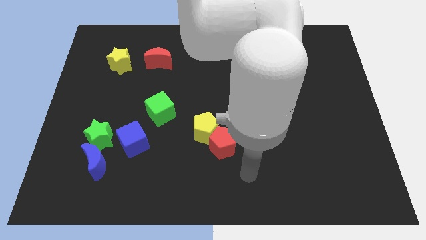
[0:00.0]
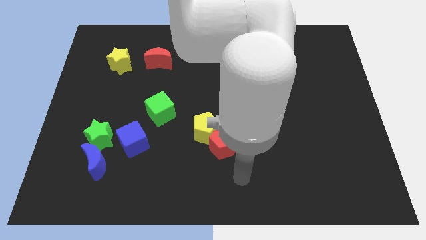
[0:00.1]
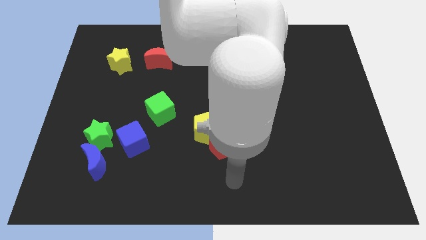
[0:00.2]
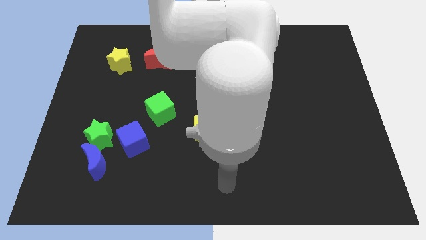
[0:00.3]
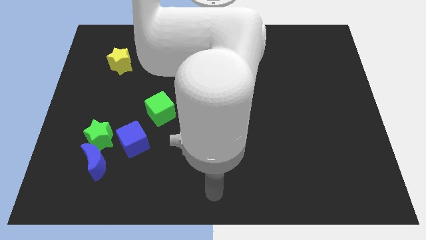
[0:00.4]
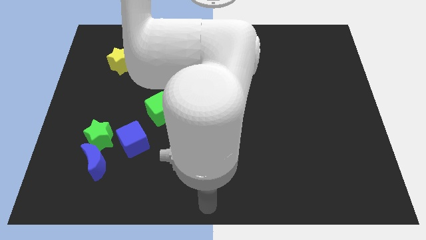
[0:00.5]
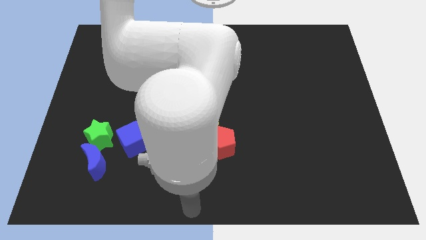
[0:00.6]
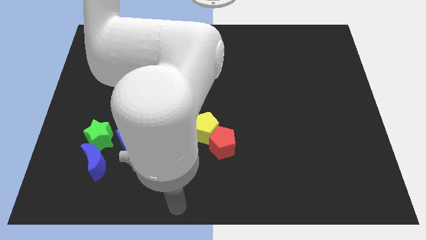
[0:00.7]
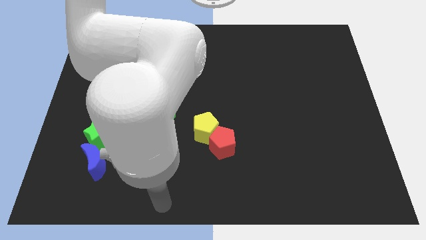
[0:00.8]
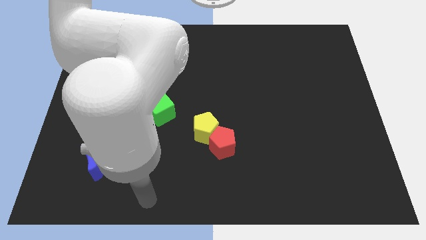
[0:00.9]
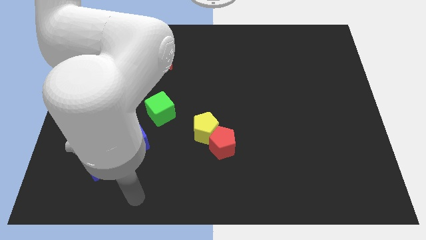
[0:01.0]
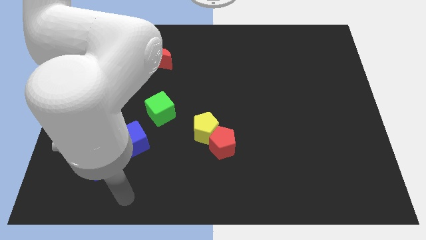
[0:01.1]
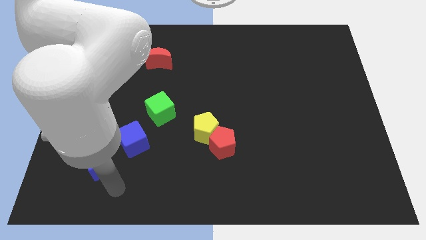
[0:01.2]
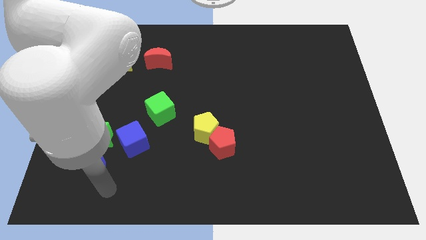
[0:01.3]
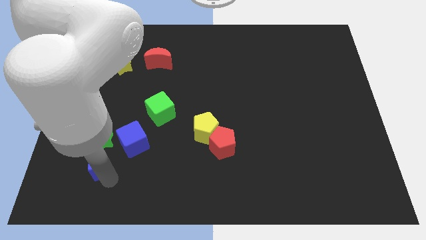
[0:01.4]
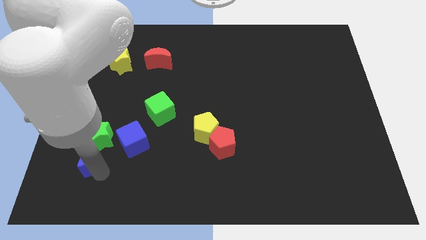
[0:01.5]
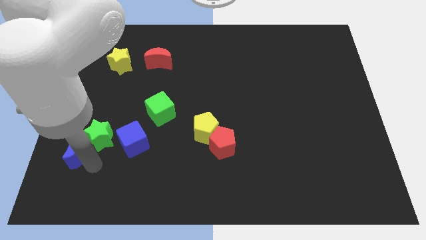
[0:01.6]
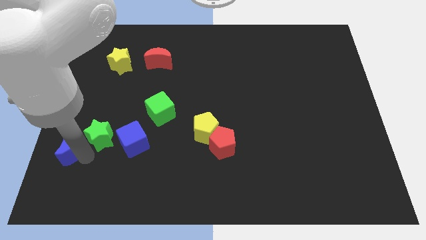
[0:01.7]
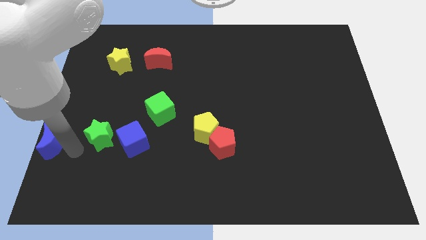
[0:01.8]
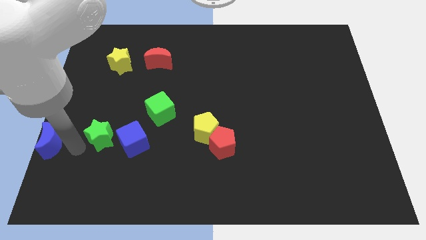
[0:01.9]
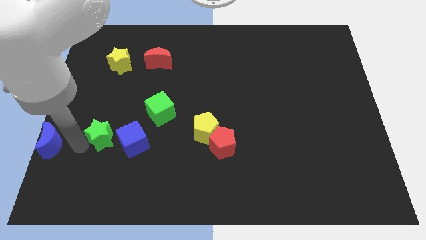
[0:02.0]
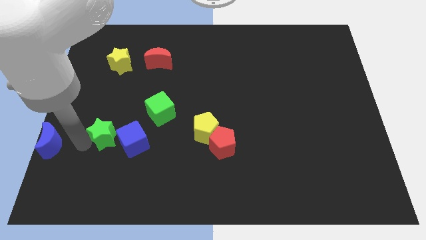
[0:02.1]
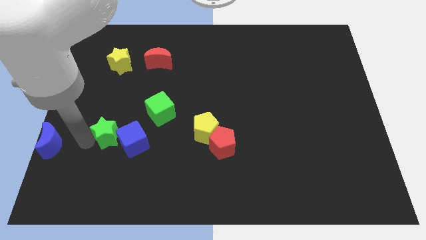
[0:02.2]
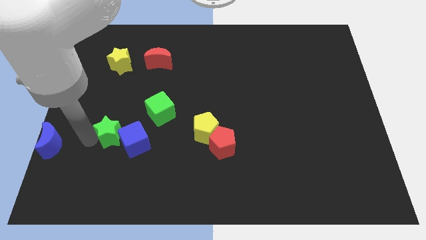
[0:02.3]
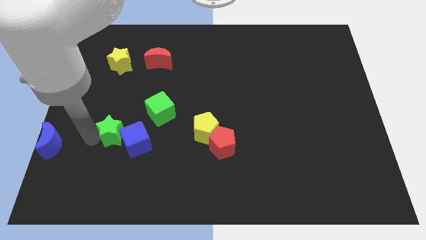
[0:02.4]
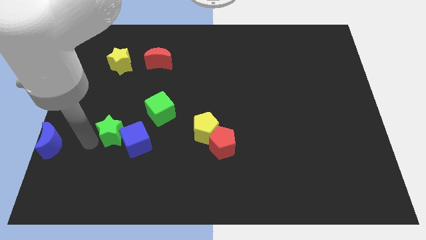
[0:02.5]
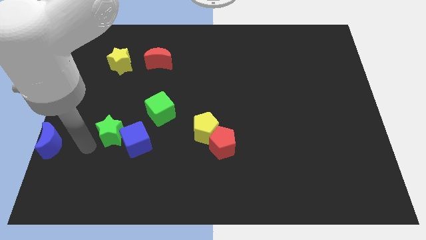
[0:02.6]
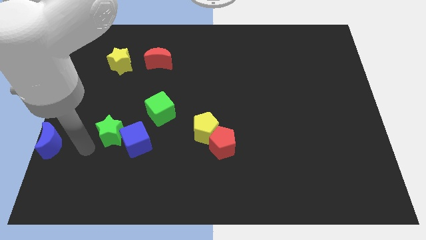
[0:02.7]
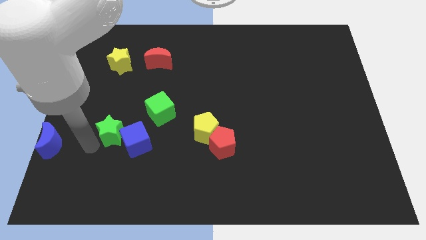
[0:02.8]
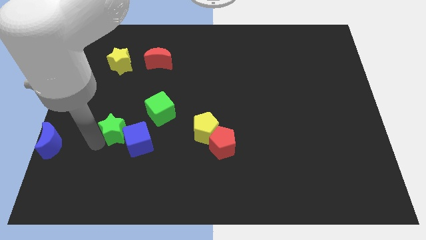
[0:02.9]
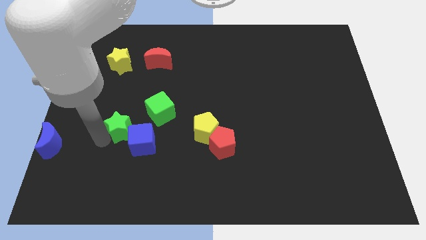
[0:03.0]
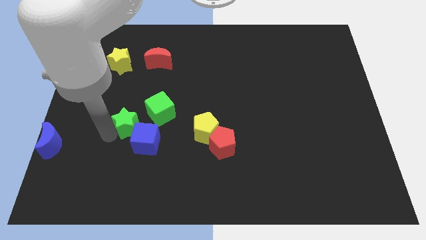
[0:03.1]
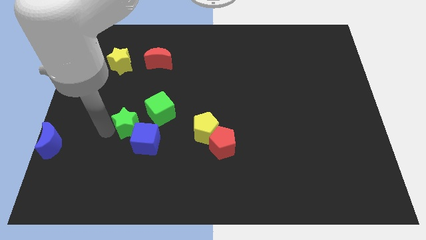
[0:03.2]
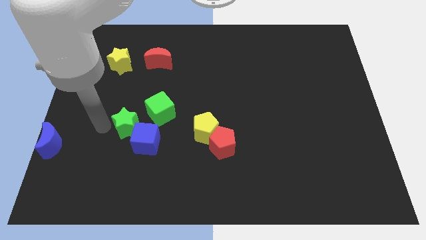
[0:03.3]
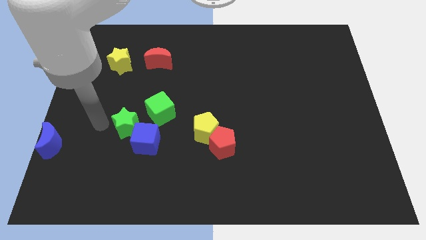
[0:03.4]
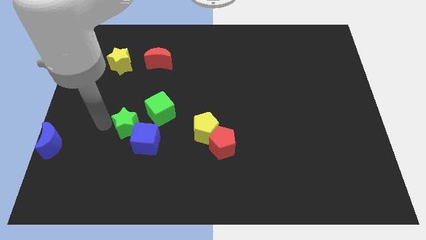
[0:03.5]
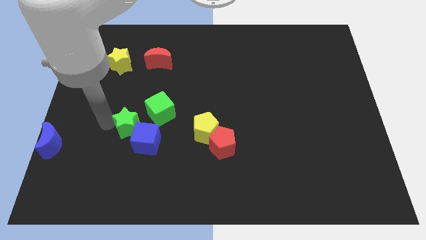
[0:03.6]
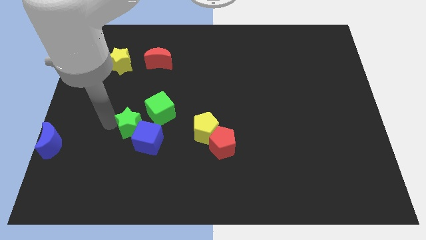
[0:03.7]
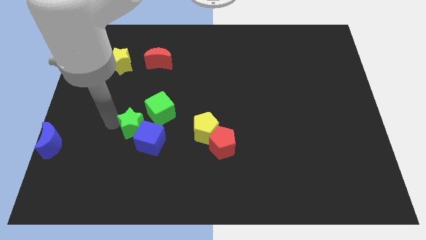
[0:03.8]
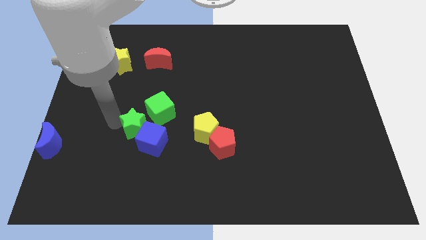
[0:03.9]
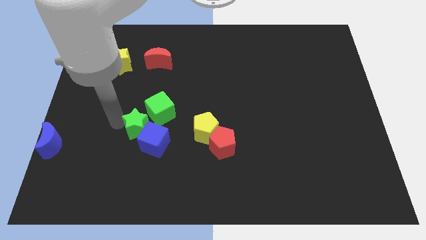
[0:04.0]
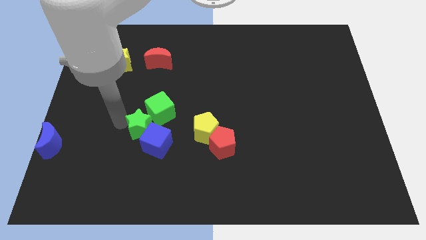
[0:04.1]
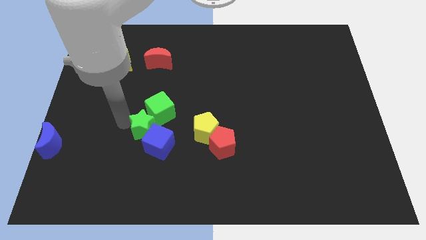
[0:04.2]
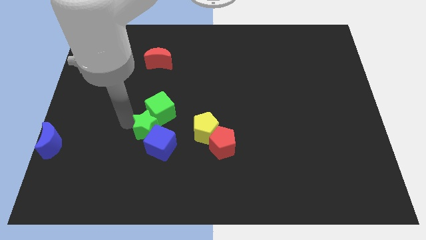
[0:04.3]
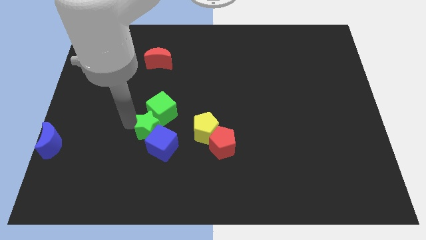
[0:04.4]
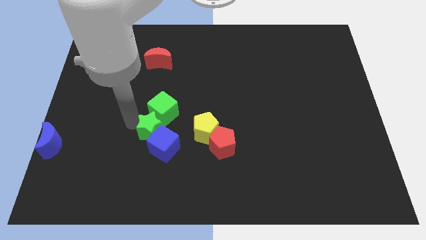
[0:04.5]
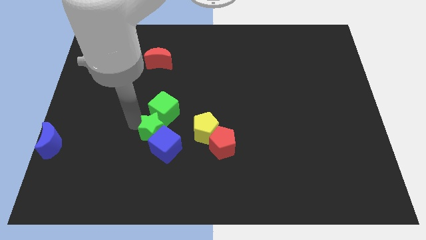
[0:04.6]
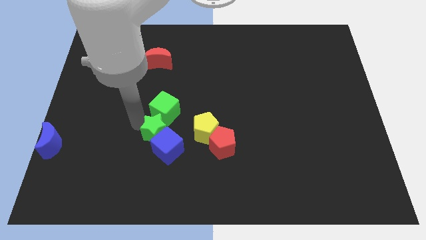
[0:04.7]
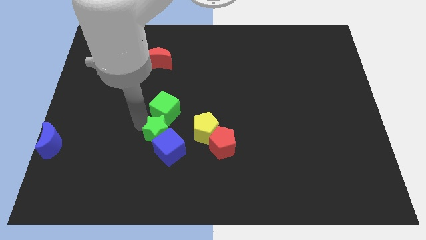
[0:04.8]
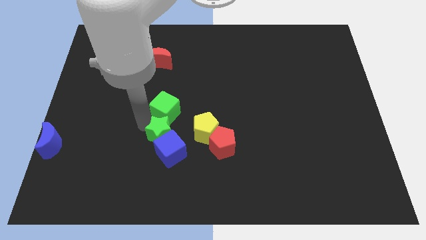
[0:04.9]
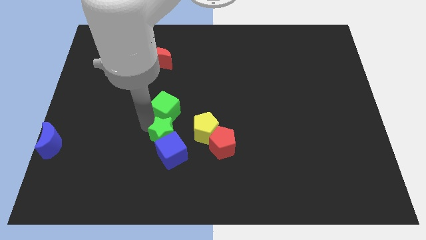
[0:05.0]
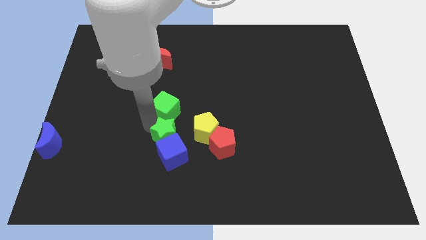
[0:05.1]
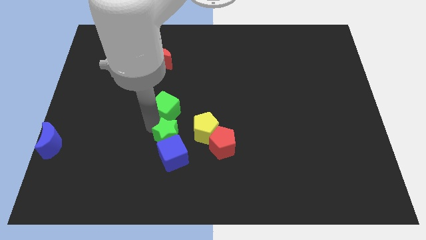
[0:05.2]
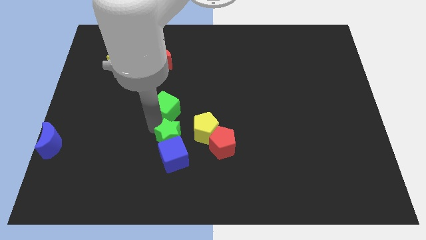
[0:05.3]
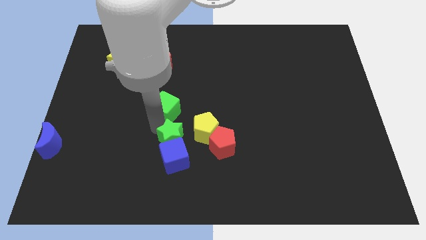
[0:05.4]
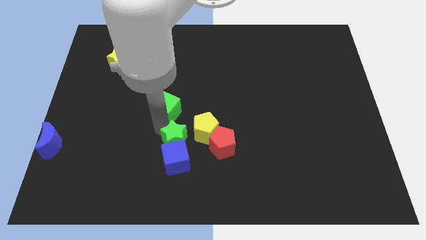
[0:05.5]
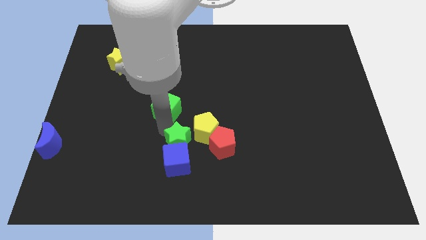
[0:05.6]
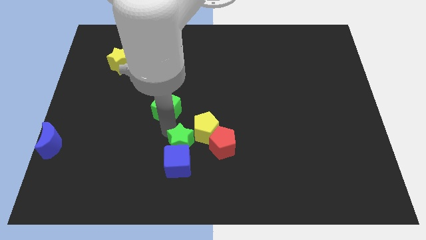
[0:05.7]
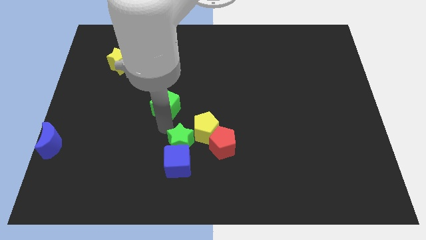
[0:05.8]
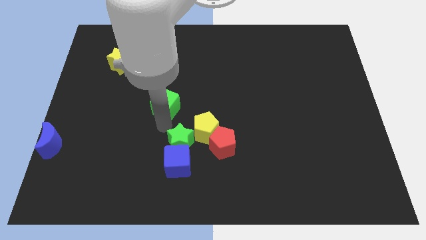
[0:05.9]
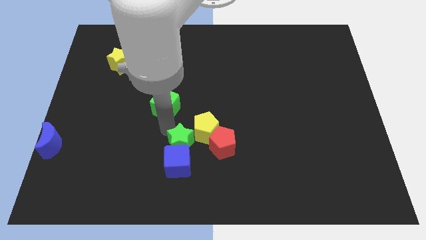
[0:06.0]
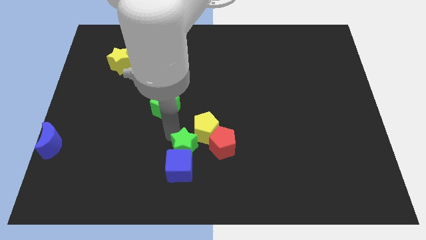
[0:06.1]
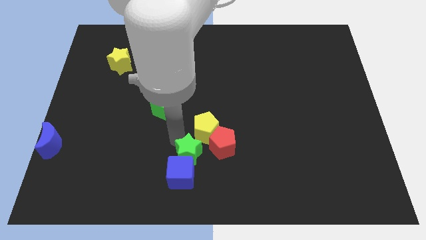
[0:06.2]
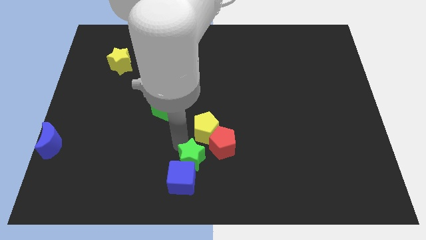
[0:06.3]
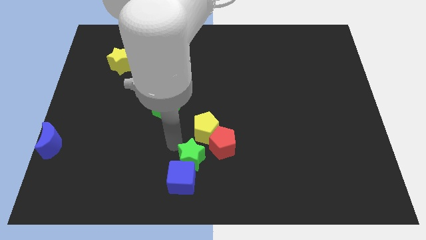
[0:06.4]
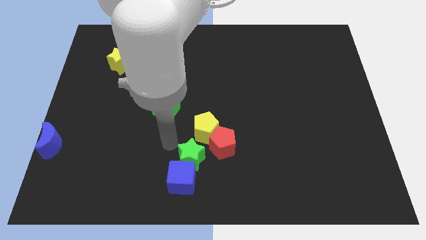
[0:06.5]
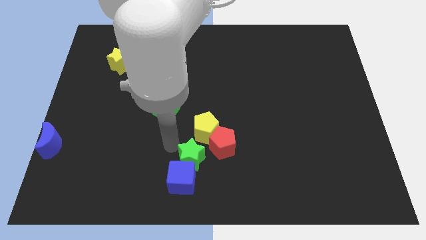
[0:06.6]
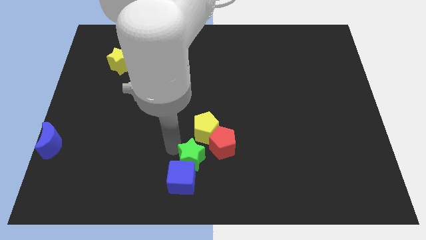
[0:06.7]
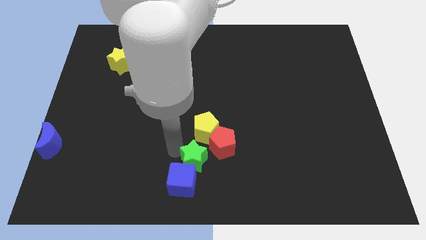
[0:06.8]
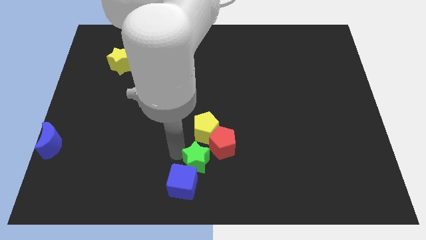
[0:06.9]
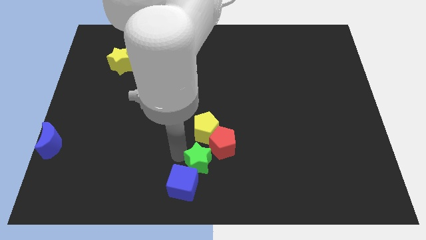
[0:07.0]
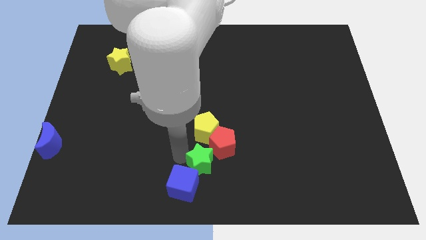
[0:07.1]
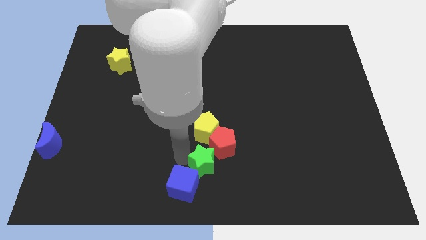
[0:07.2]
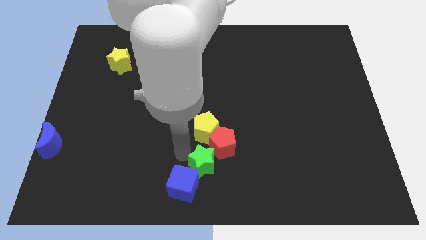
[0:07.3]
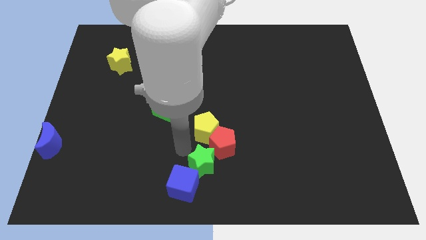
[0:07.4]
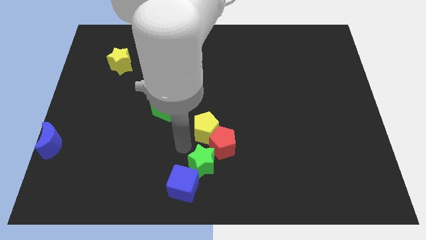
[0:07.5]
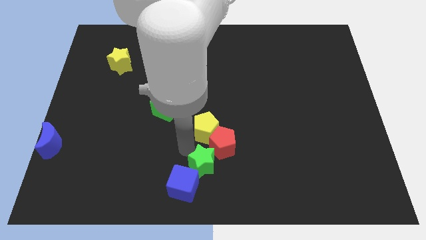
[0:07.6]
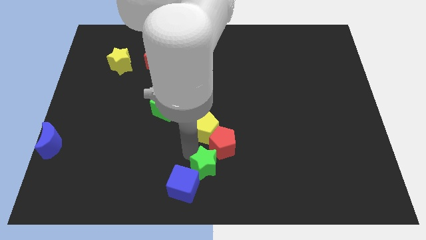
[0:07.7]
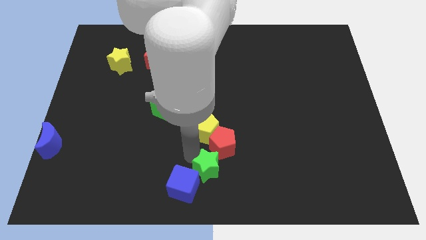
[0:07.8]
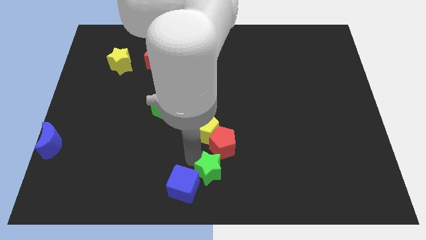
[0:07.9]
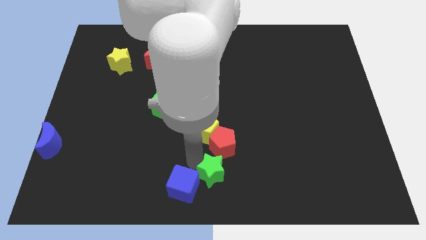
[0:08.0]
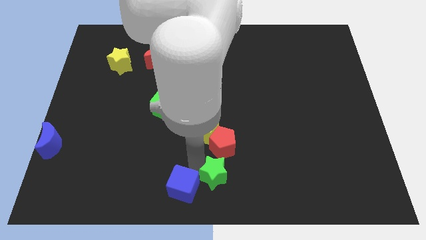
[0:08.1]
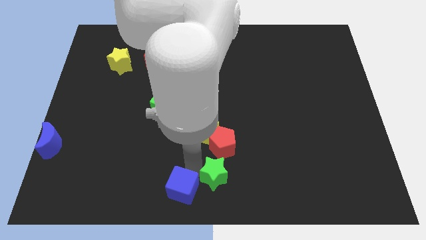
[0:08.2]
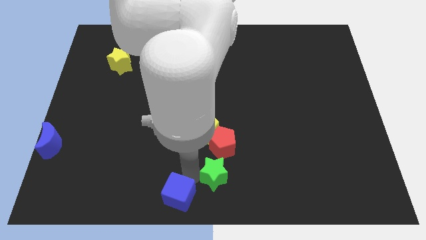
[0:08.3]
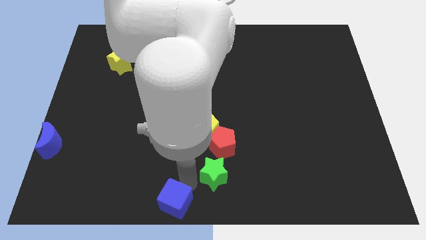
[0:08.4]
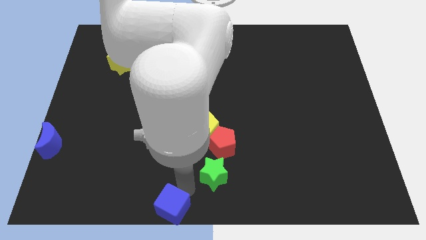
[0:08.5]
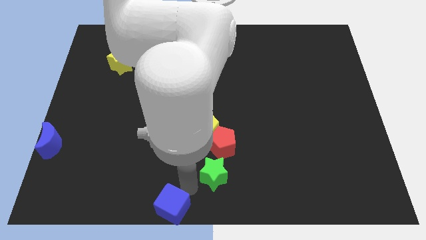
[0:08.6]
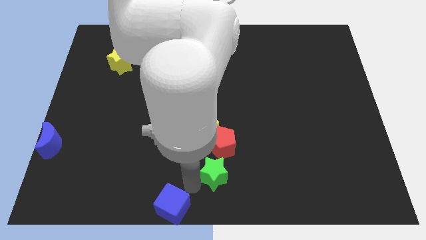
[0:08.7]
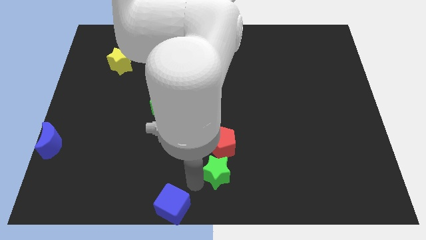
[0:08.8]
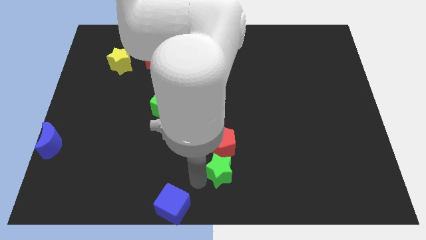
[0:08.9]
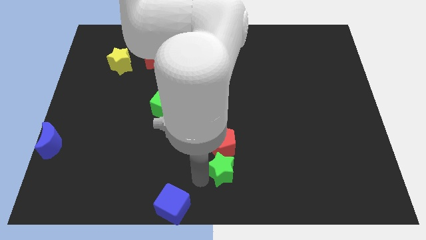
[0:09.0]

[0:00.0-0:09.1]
push the green star to the bottom right of the yellow pentagon
